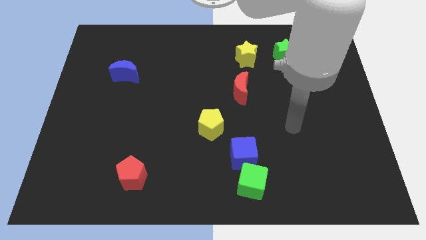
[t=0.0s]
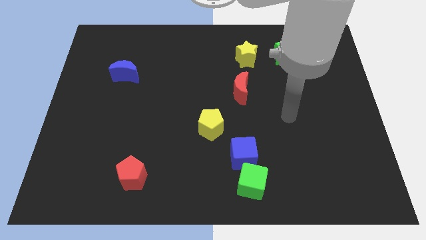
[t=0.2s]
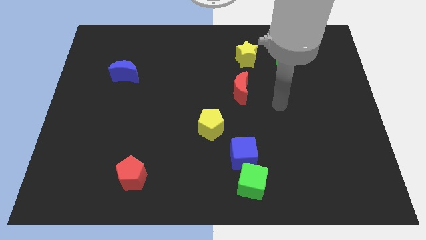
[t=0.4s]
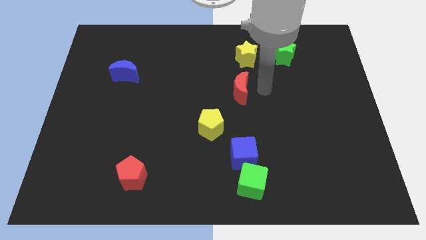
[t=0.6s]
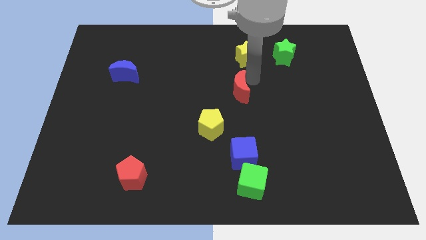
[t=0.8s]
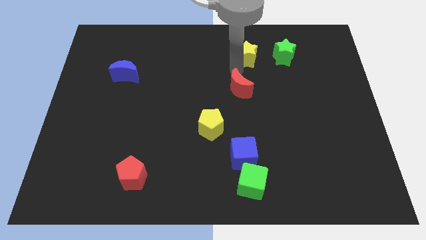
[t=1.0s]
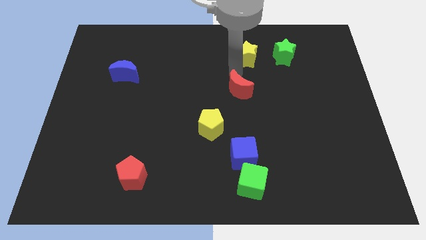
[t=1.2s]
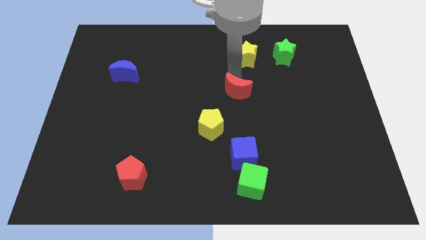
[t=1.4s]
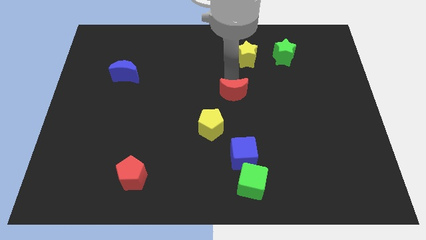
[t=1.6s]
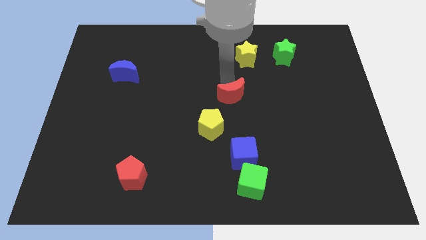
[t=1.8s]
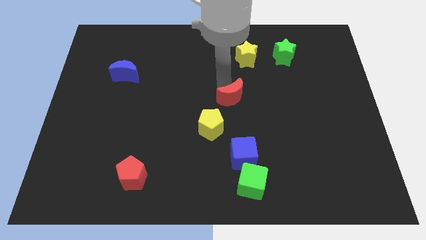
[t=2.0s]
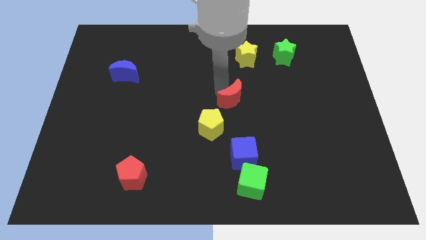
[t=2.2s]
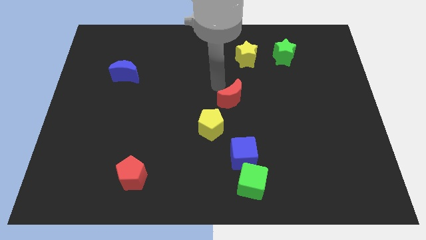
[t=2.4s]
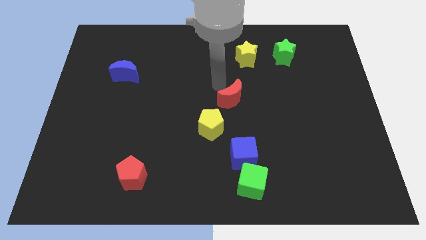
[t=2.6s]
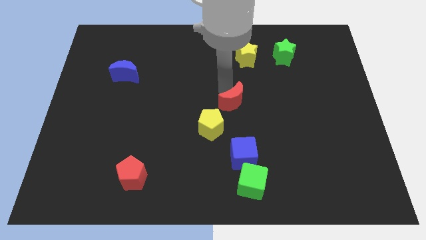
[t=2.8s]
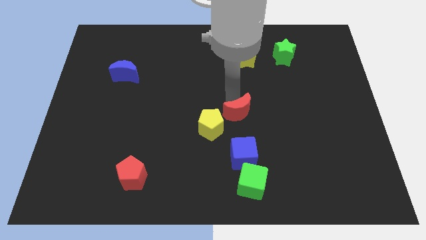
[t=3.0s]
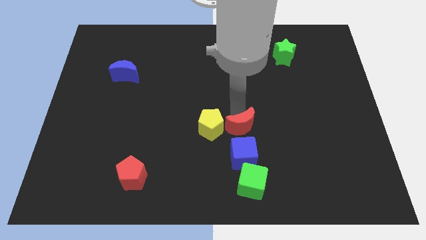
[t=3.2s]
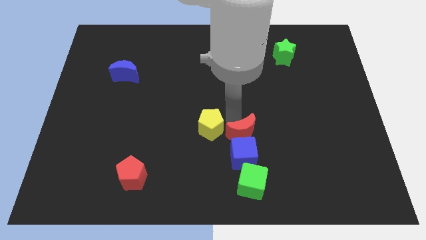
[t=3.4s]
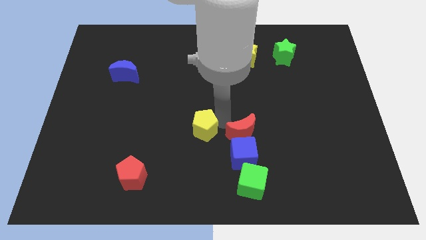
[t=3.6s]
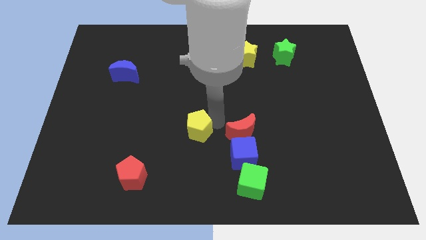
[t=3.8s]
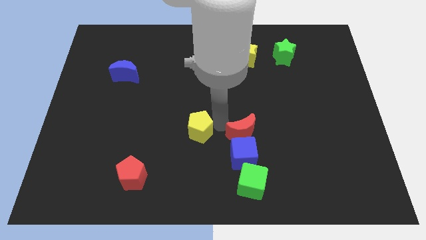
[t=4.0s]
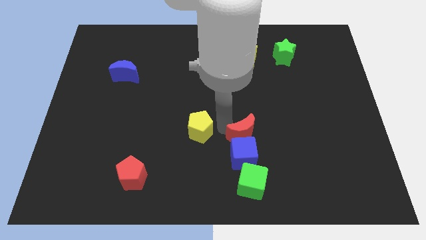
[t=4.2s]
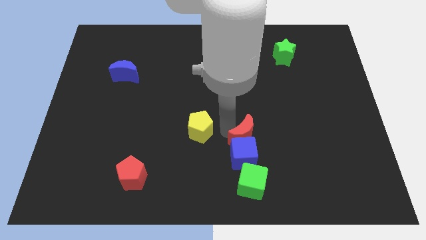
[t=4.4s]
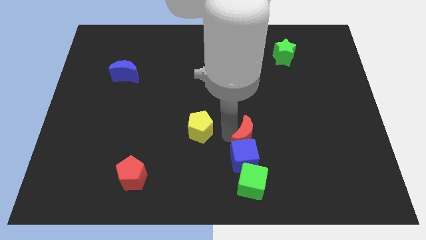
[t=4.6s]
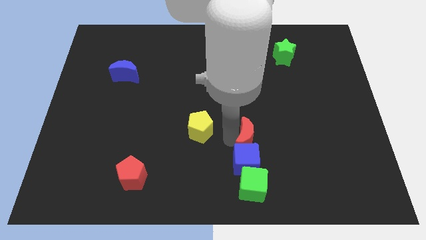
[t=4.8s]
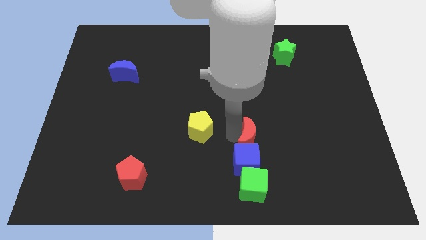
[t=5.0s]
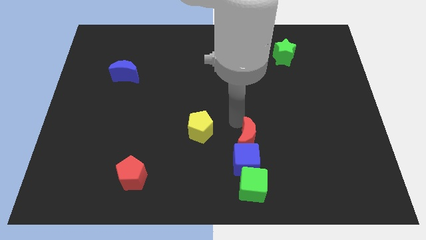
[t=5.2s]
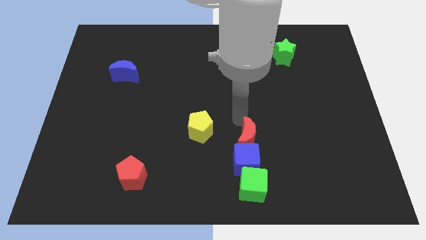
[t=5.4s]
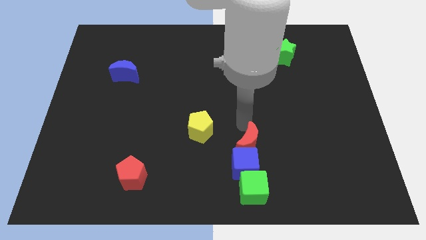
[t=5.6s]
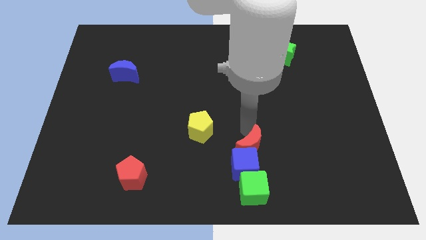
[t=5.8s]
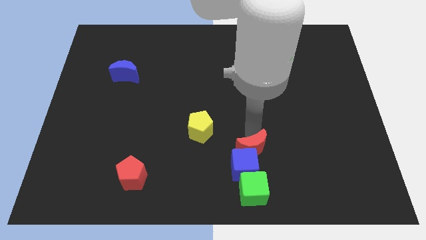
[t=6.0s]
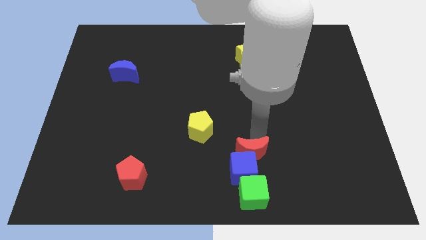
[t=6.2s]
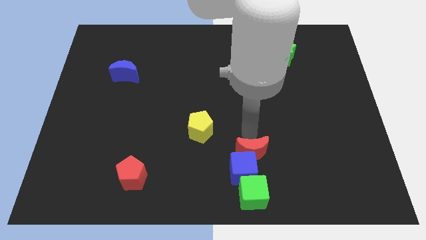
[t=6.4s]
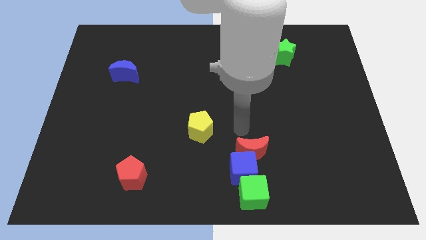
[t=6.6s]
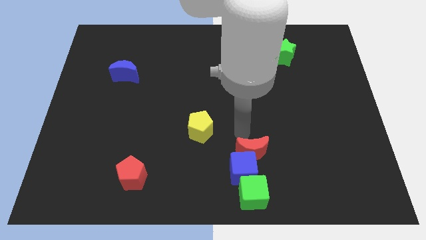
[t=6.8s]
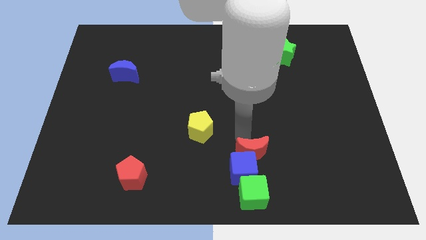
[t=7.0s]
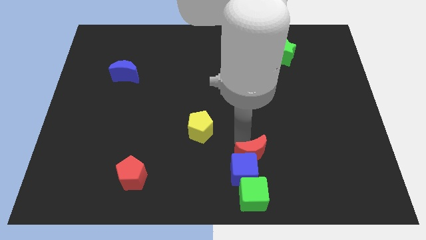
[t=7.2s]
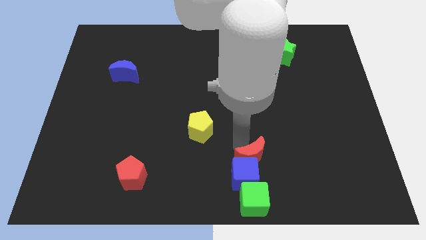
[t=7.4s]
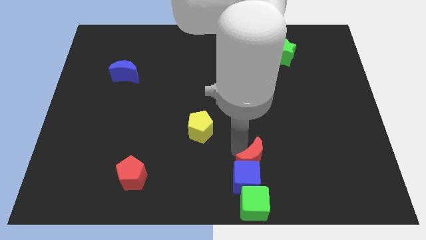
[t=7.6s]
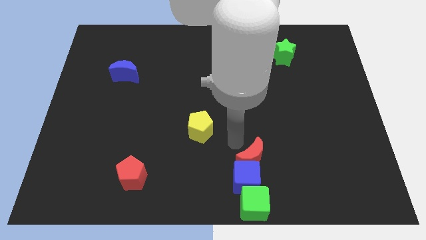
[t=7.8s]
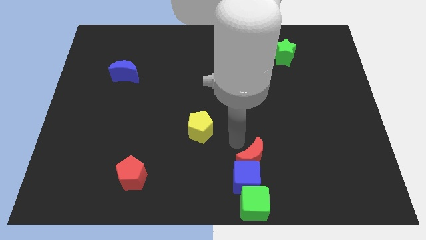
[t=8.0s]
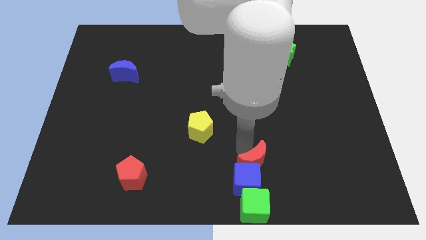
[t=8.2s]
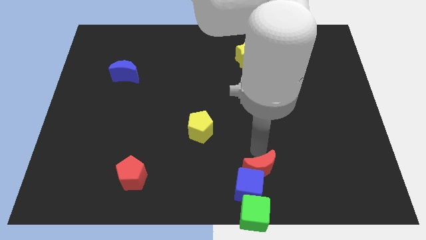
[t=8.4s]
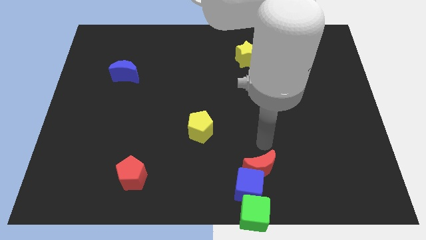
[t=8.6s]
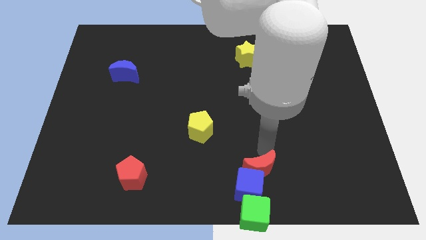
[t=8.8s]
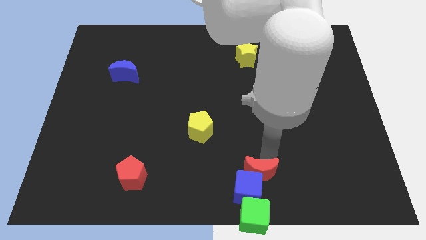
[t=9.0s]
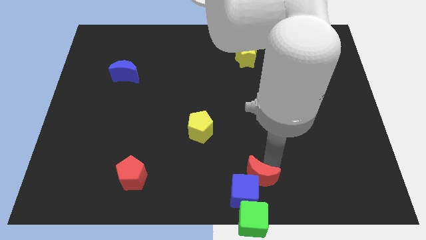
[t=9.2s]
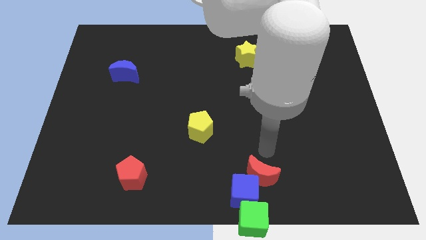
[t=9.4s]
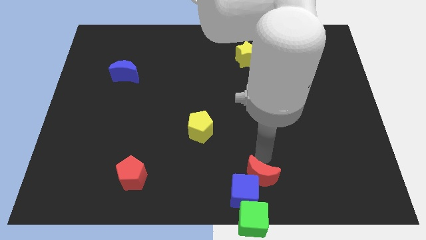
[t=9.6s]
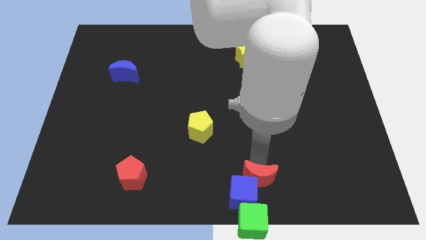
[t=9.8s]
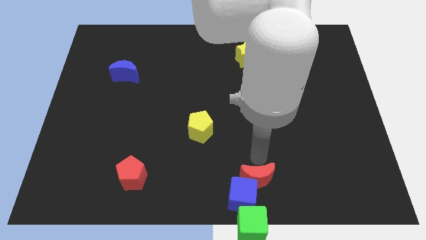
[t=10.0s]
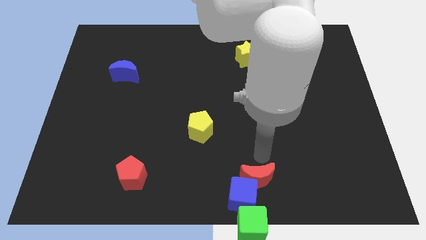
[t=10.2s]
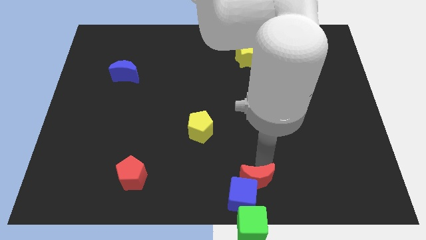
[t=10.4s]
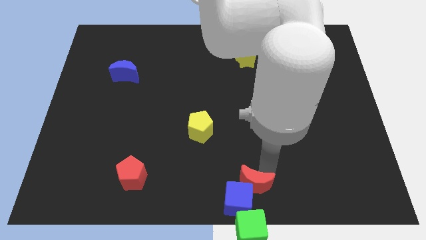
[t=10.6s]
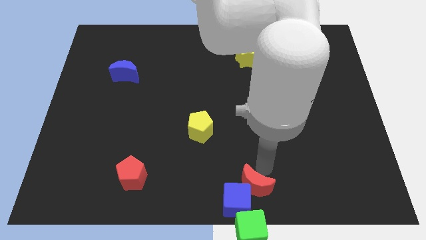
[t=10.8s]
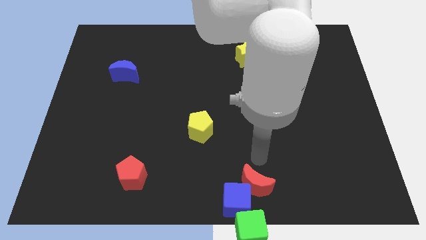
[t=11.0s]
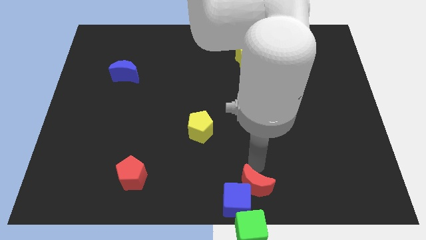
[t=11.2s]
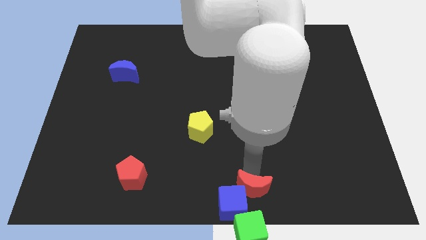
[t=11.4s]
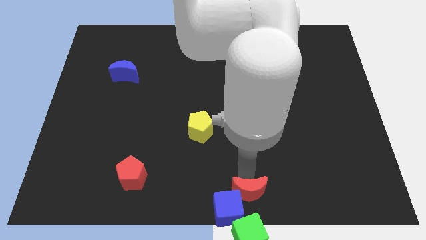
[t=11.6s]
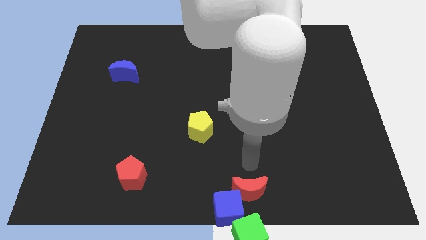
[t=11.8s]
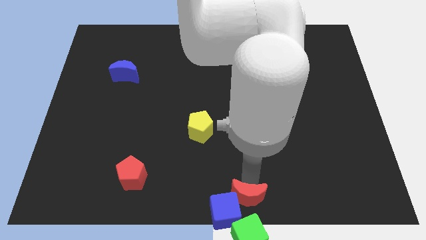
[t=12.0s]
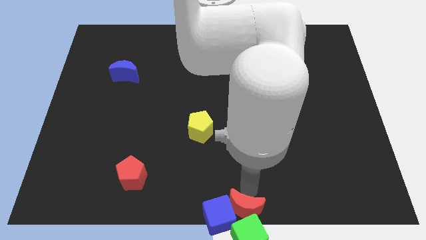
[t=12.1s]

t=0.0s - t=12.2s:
slide the red moon close to the green cube
